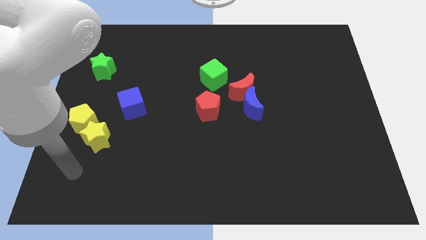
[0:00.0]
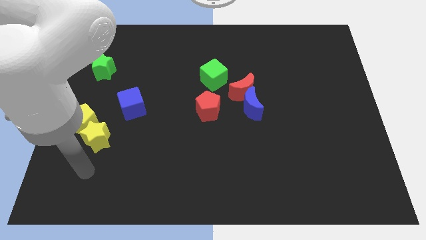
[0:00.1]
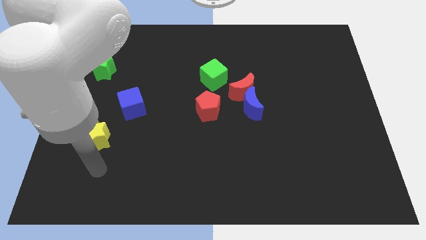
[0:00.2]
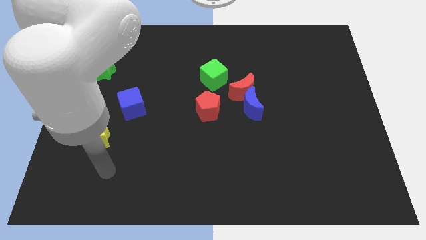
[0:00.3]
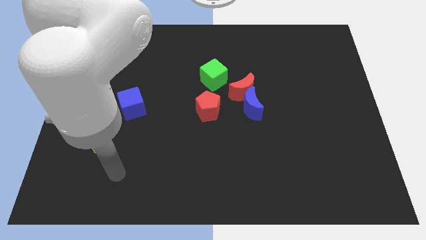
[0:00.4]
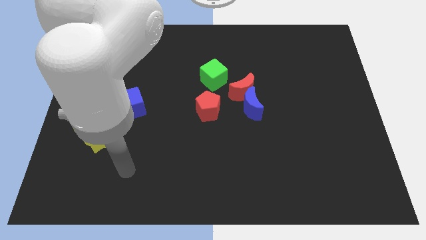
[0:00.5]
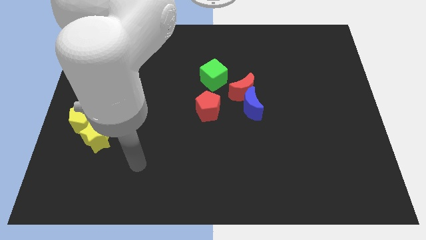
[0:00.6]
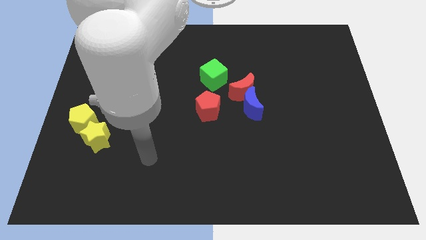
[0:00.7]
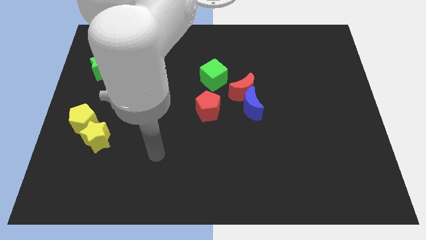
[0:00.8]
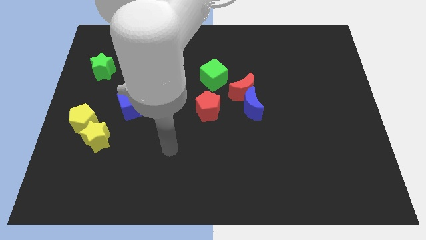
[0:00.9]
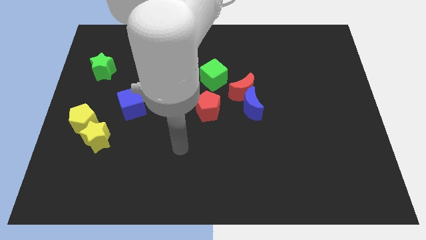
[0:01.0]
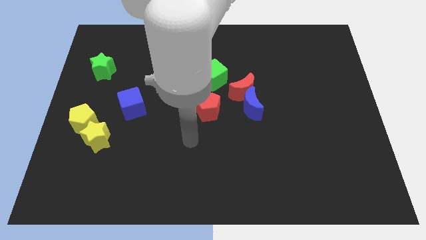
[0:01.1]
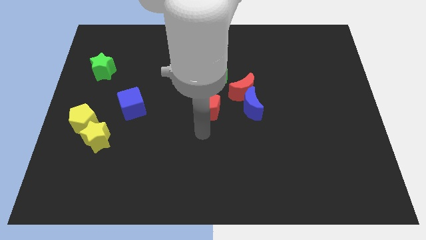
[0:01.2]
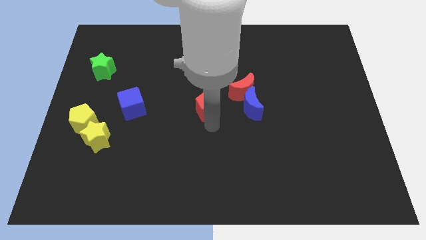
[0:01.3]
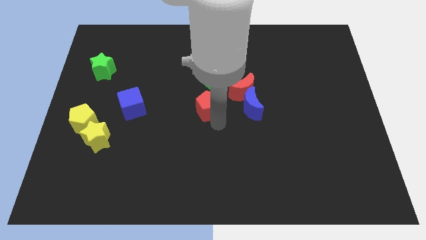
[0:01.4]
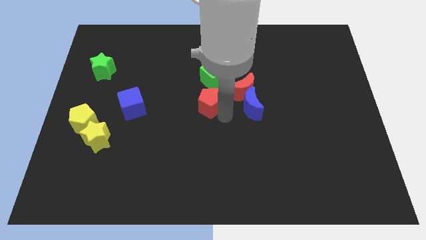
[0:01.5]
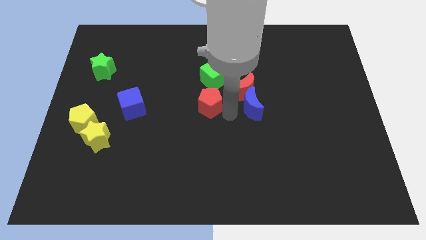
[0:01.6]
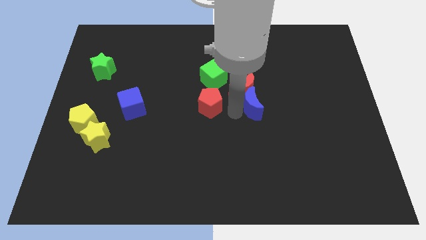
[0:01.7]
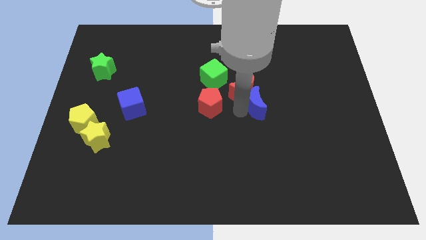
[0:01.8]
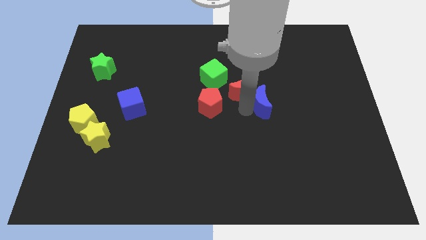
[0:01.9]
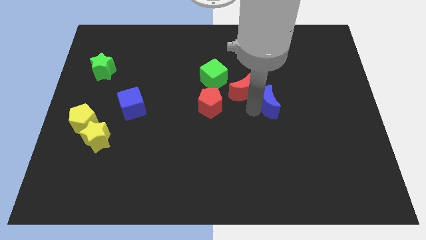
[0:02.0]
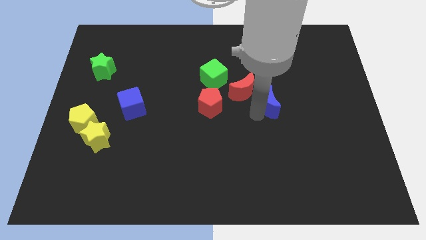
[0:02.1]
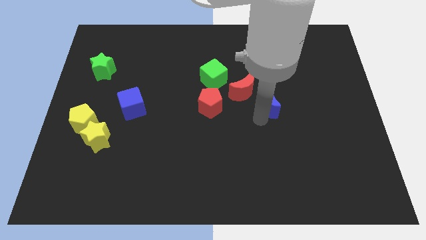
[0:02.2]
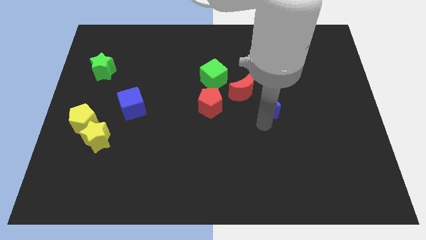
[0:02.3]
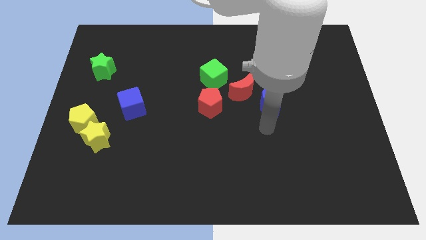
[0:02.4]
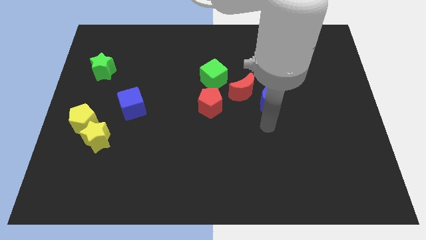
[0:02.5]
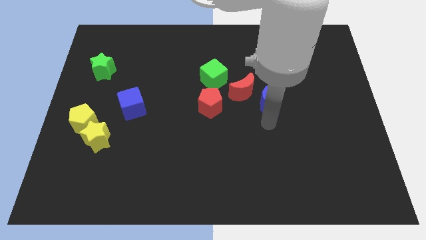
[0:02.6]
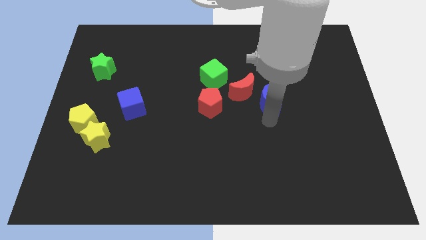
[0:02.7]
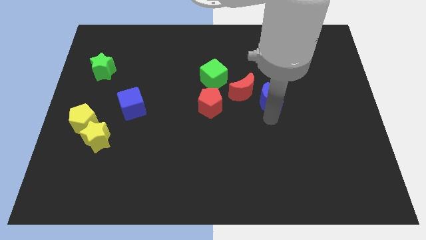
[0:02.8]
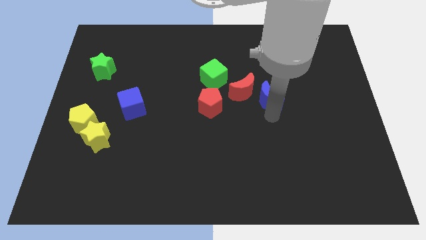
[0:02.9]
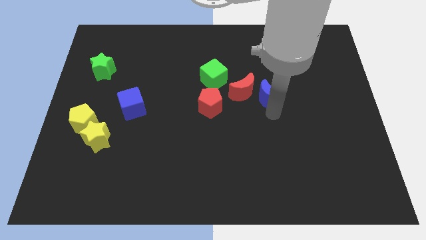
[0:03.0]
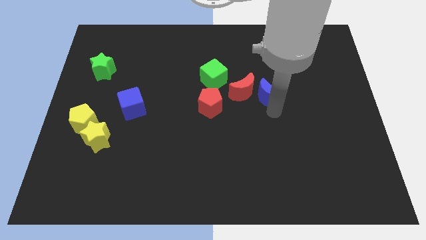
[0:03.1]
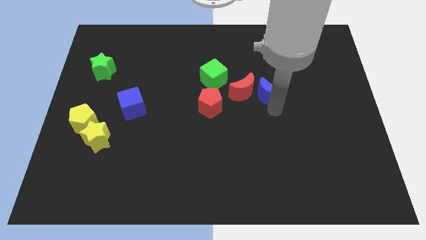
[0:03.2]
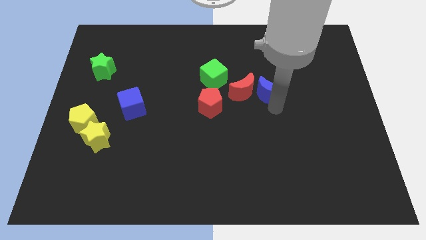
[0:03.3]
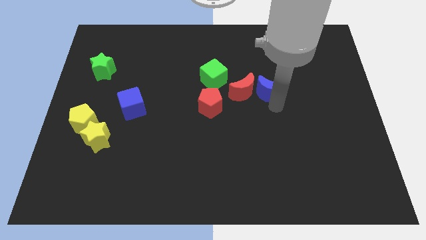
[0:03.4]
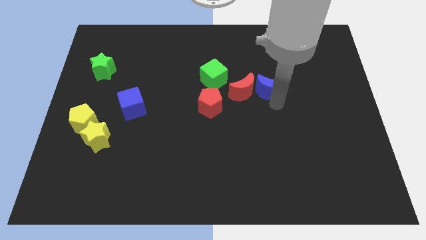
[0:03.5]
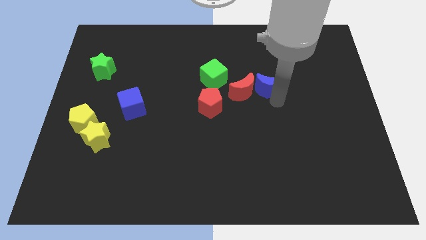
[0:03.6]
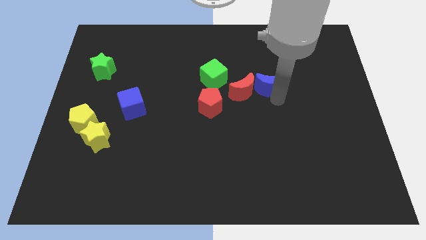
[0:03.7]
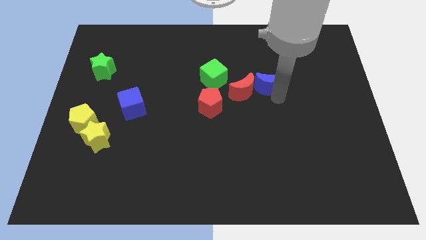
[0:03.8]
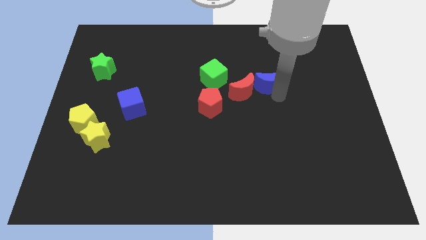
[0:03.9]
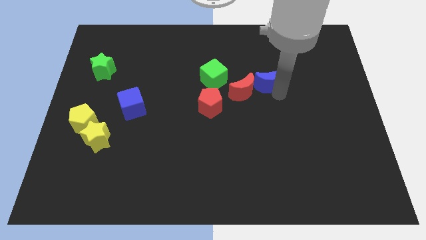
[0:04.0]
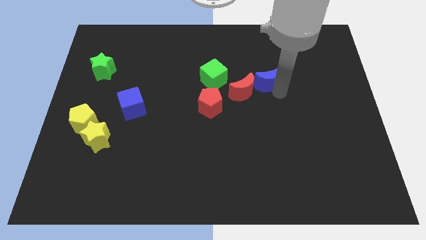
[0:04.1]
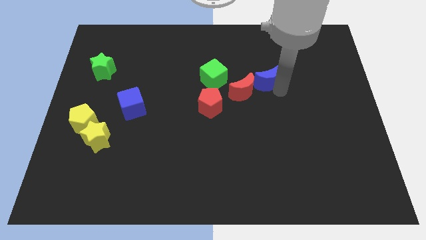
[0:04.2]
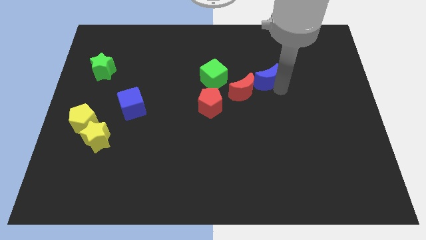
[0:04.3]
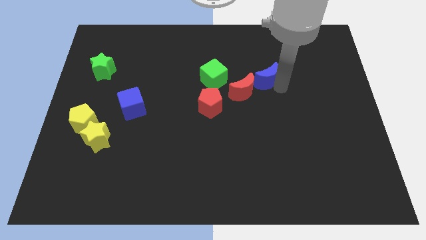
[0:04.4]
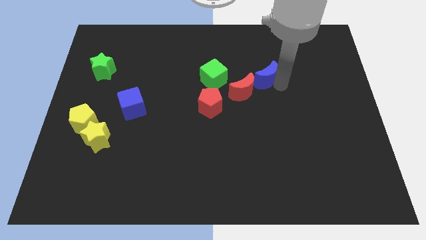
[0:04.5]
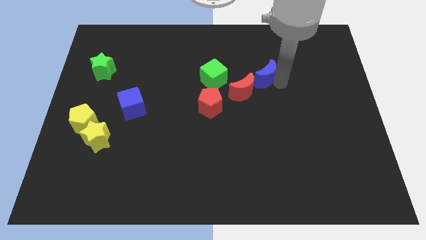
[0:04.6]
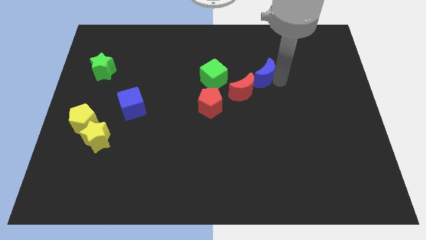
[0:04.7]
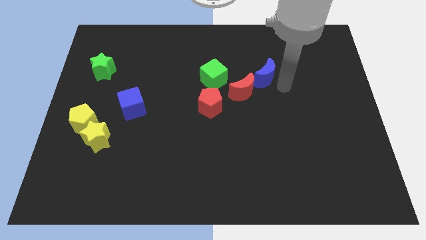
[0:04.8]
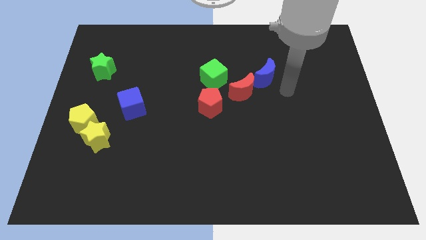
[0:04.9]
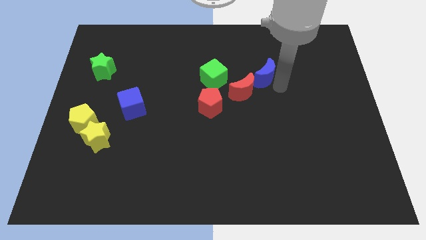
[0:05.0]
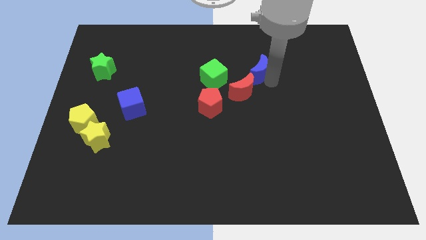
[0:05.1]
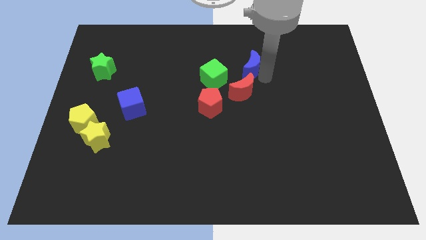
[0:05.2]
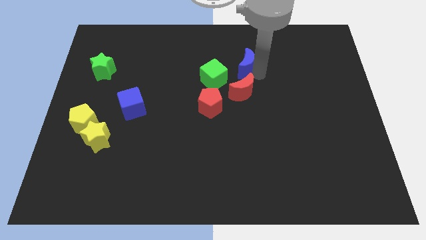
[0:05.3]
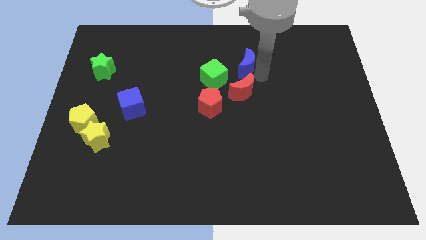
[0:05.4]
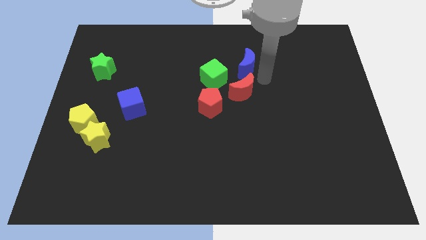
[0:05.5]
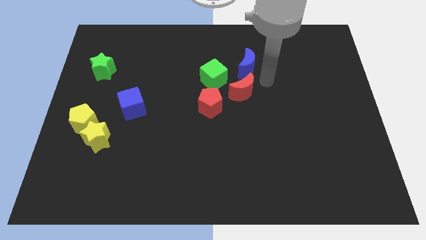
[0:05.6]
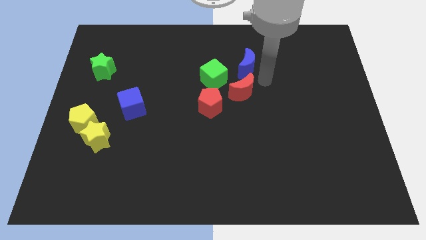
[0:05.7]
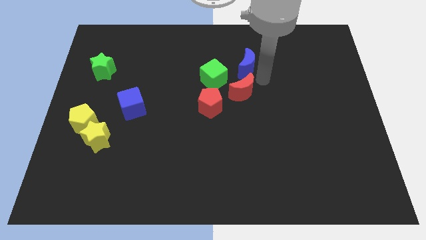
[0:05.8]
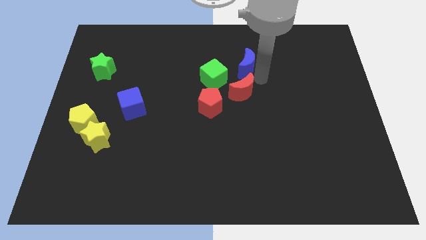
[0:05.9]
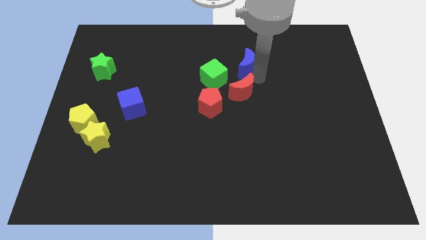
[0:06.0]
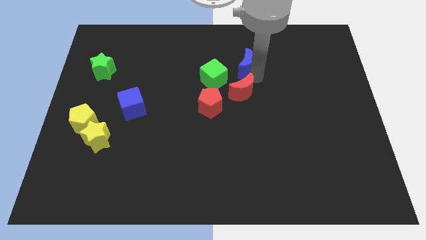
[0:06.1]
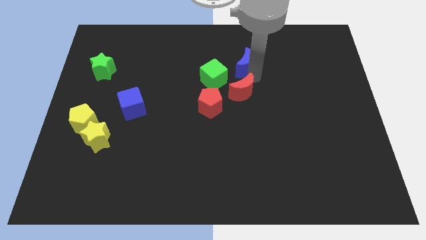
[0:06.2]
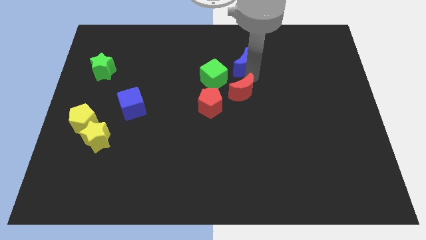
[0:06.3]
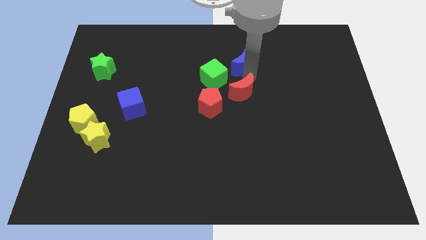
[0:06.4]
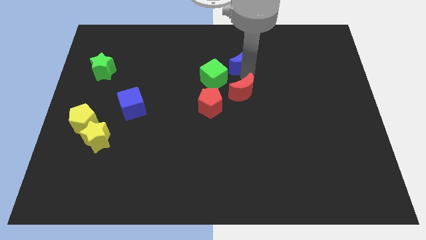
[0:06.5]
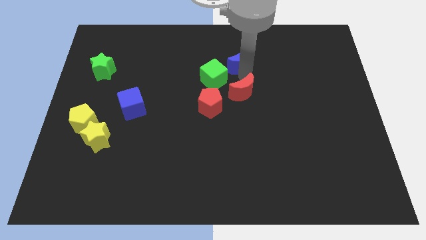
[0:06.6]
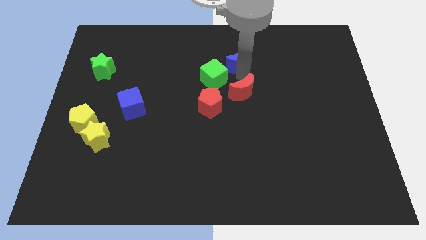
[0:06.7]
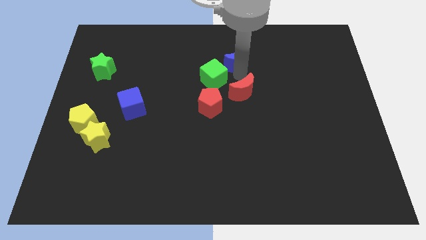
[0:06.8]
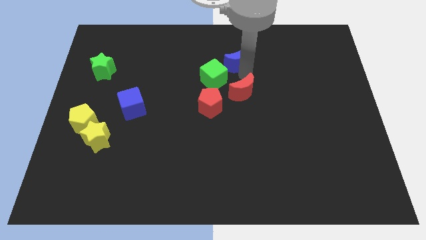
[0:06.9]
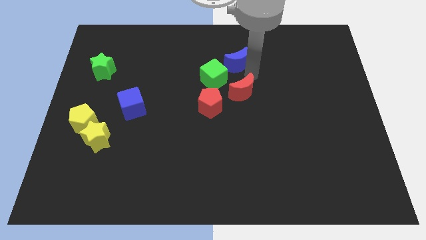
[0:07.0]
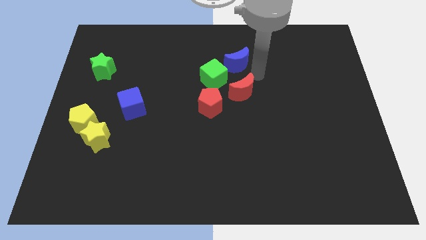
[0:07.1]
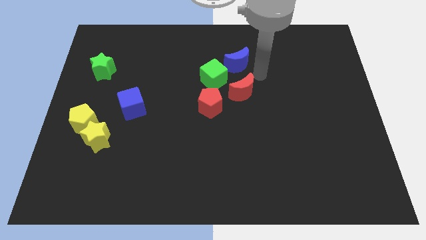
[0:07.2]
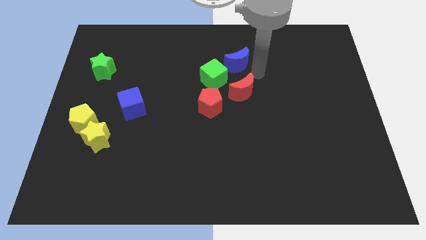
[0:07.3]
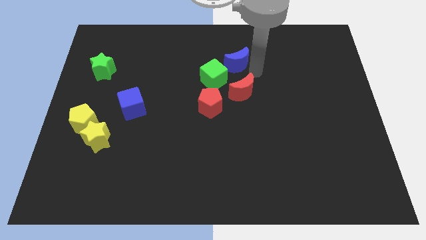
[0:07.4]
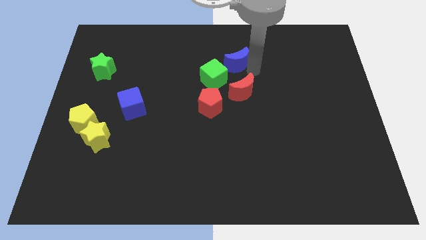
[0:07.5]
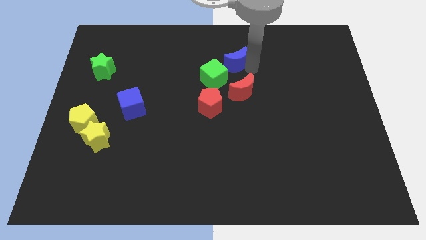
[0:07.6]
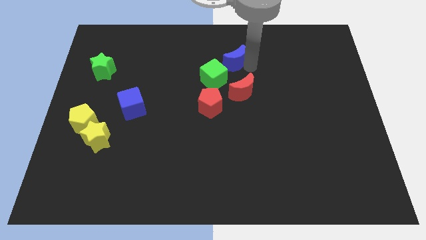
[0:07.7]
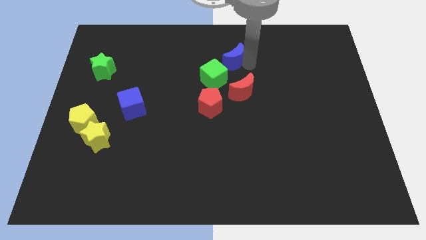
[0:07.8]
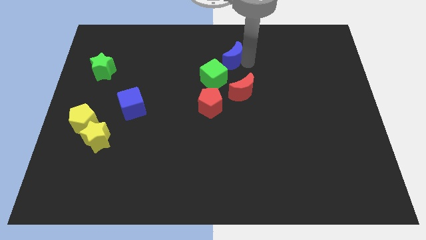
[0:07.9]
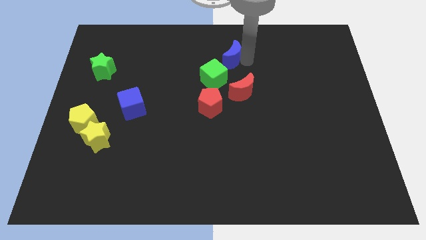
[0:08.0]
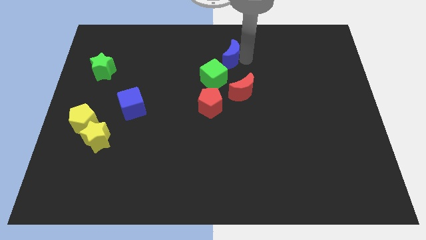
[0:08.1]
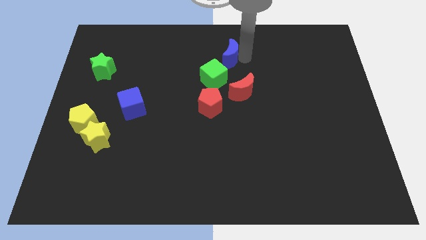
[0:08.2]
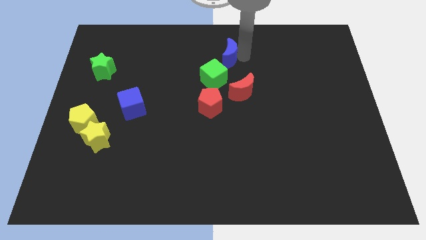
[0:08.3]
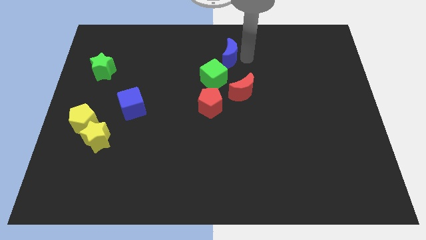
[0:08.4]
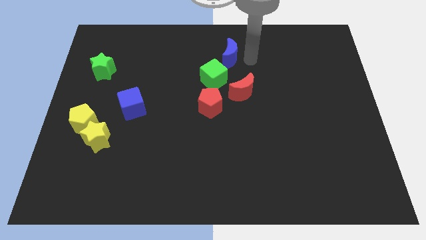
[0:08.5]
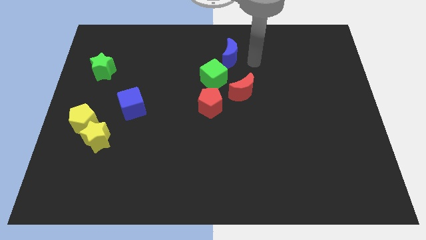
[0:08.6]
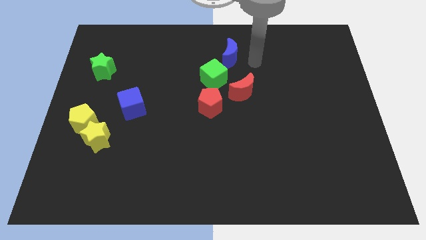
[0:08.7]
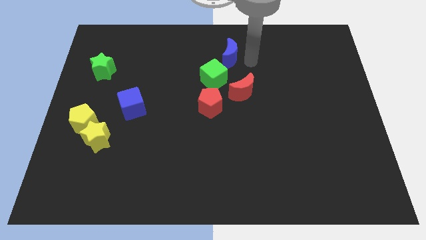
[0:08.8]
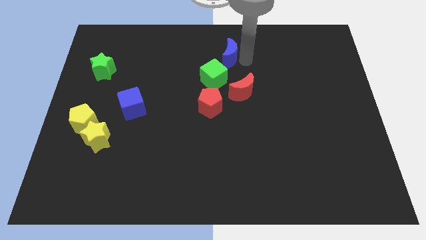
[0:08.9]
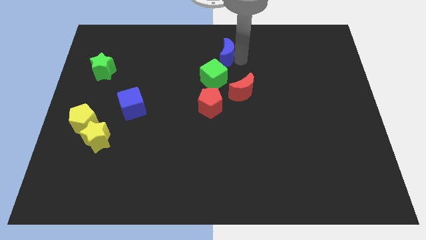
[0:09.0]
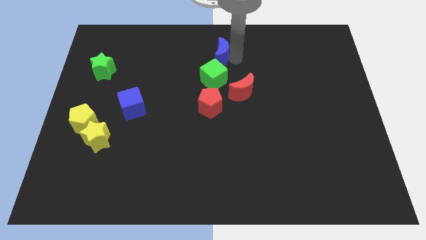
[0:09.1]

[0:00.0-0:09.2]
put the blue moon to the top
